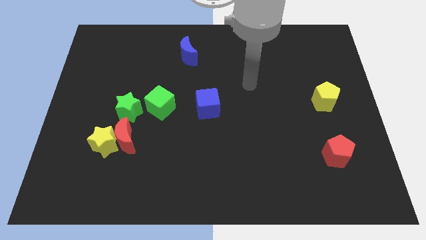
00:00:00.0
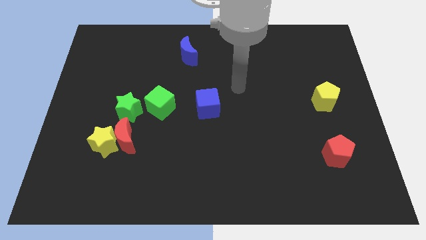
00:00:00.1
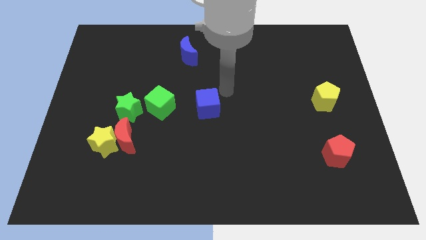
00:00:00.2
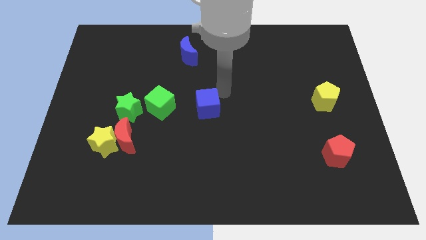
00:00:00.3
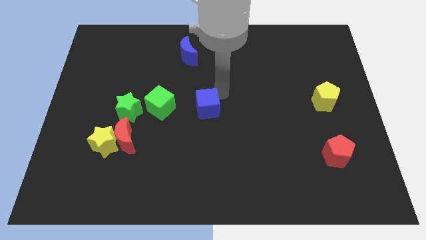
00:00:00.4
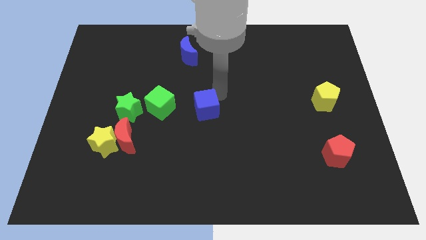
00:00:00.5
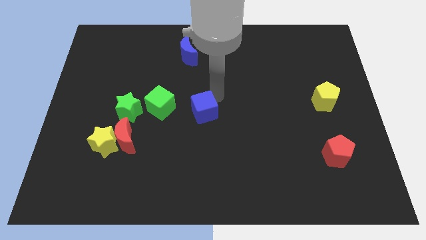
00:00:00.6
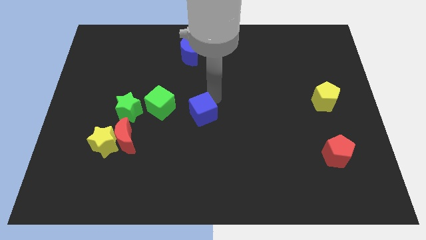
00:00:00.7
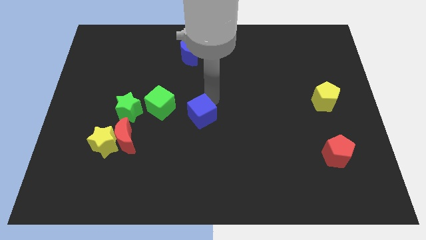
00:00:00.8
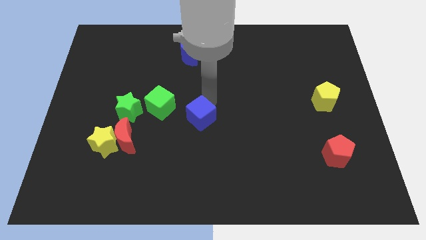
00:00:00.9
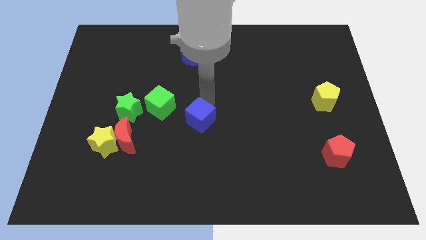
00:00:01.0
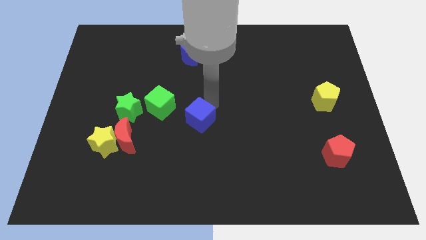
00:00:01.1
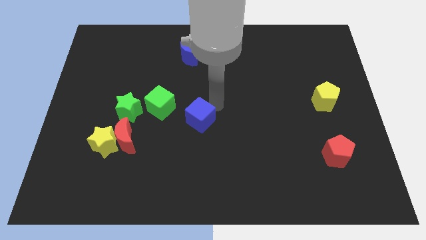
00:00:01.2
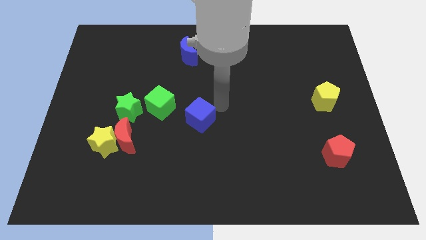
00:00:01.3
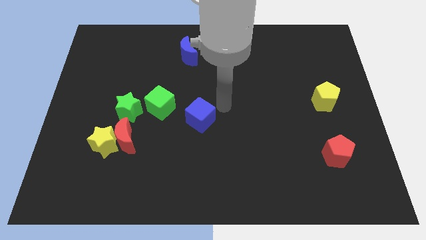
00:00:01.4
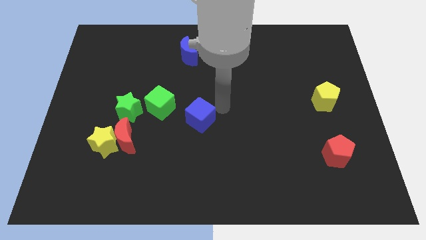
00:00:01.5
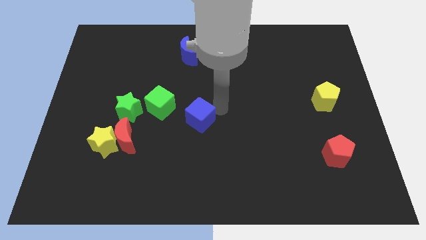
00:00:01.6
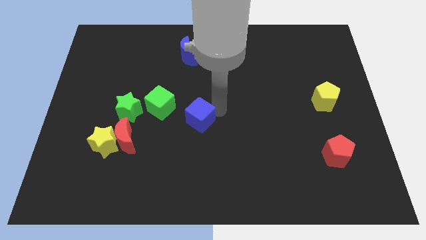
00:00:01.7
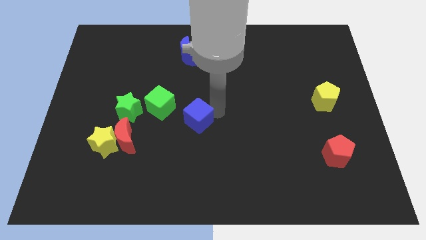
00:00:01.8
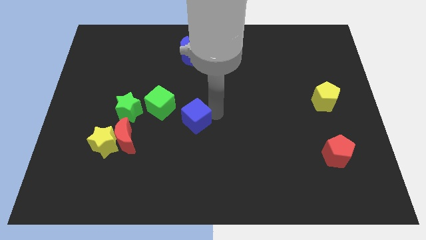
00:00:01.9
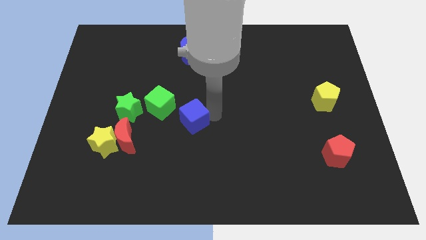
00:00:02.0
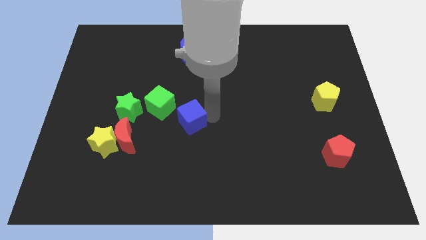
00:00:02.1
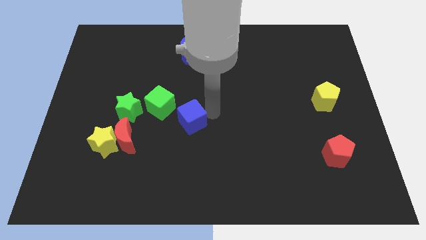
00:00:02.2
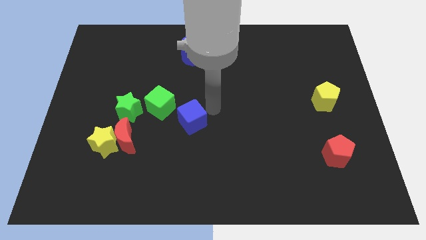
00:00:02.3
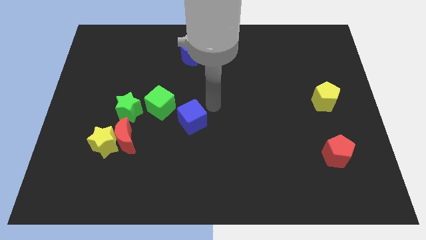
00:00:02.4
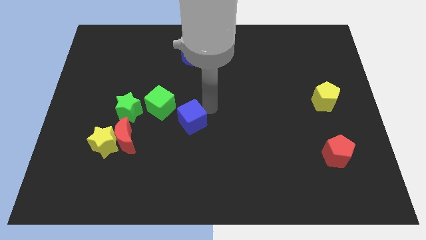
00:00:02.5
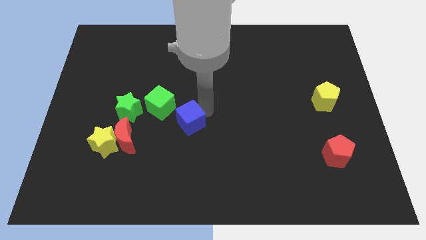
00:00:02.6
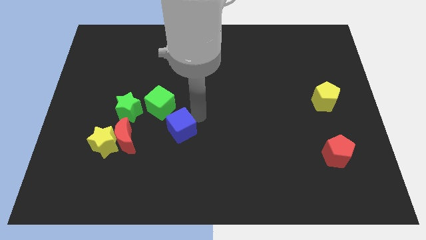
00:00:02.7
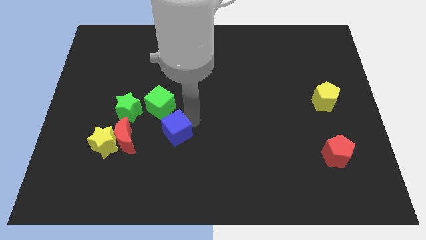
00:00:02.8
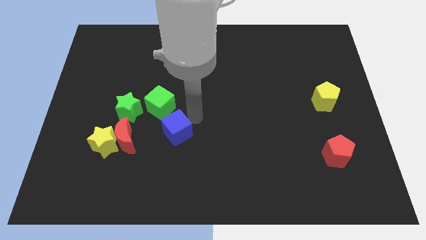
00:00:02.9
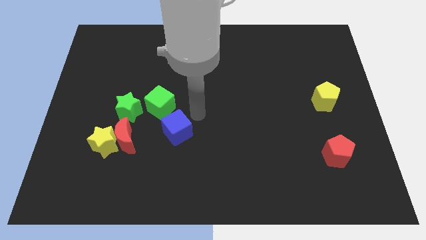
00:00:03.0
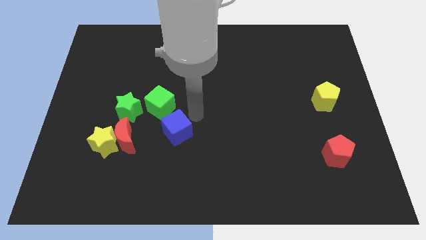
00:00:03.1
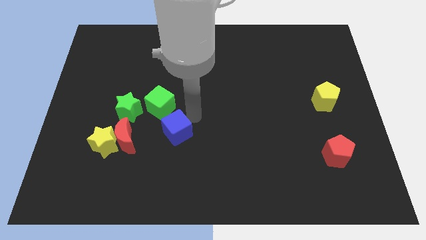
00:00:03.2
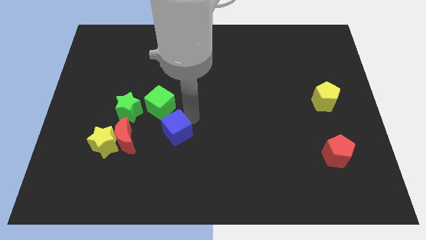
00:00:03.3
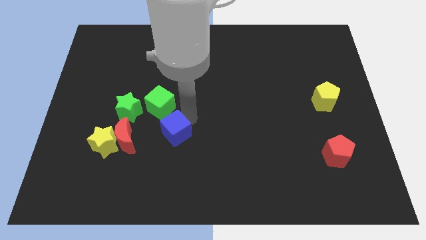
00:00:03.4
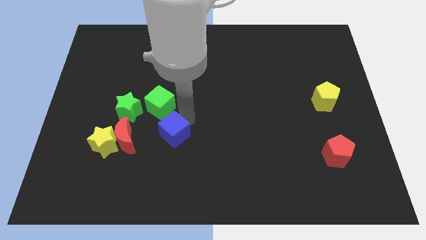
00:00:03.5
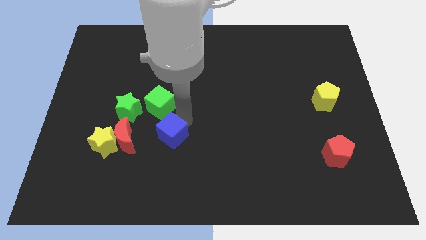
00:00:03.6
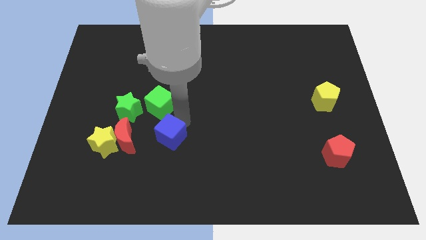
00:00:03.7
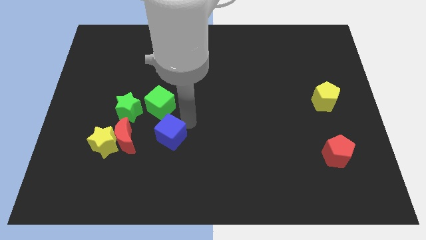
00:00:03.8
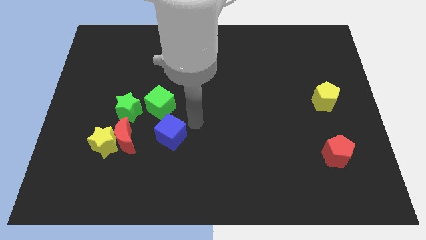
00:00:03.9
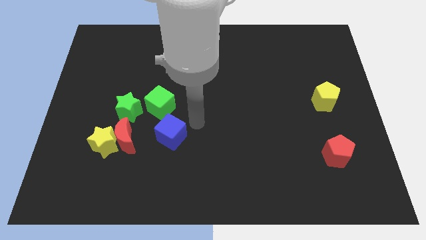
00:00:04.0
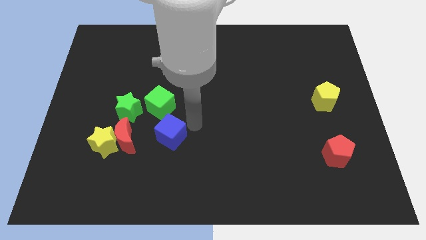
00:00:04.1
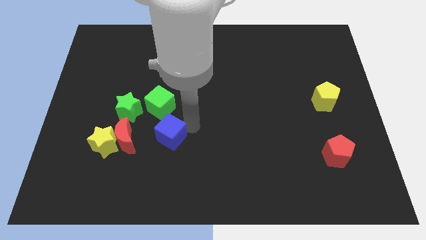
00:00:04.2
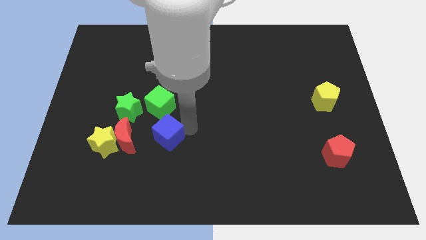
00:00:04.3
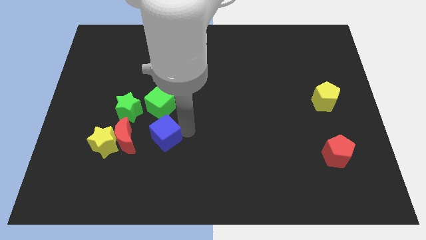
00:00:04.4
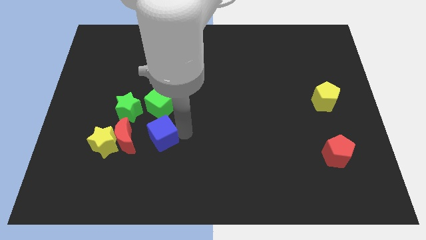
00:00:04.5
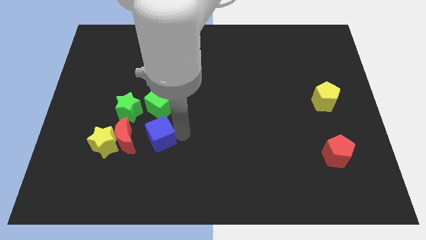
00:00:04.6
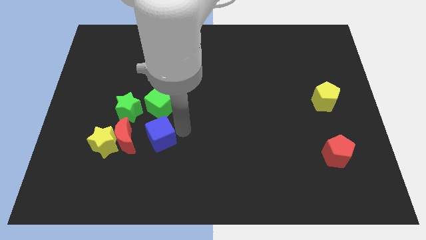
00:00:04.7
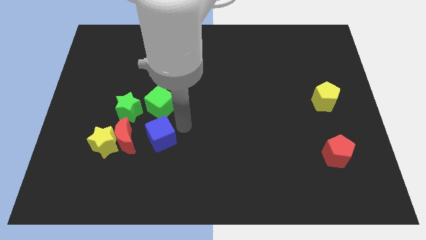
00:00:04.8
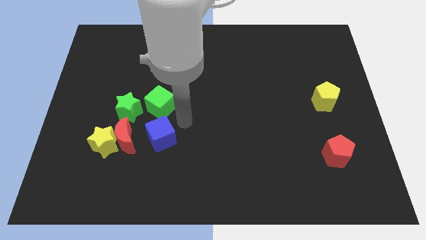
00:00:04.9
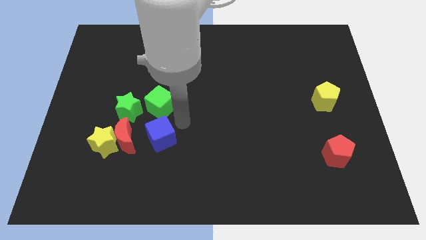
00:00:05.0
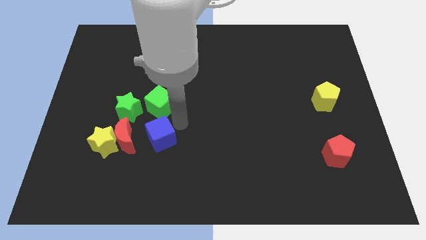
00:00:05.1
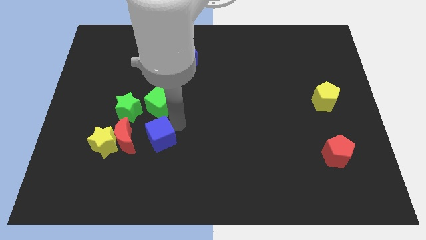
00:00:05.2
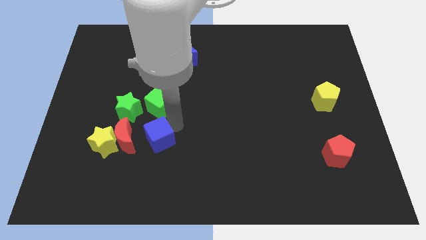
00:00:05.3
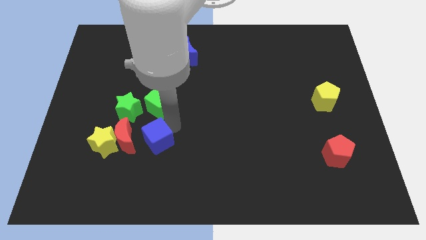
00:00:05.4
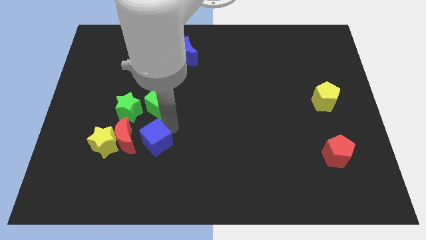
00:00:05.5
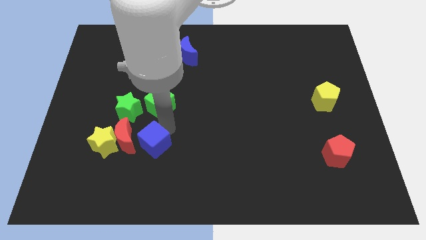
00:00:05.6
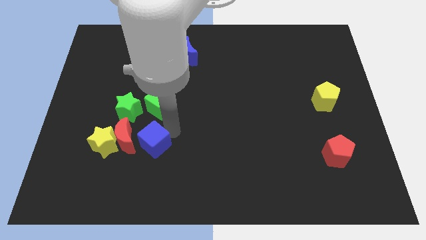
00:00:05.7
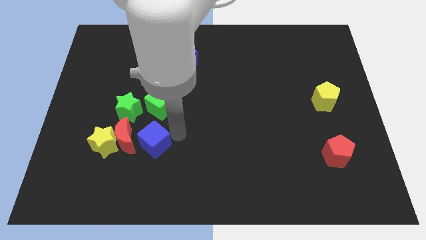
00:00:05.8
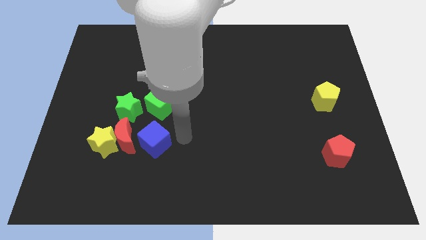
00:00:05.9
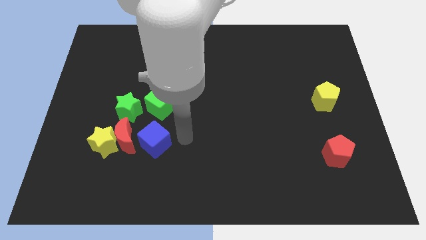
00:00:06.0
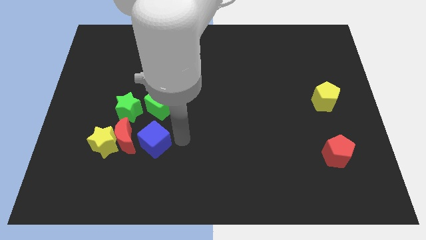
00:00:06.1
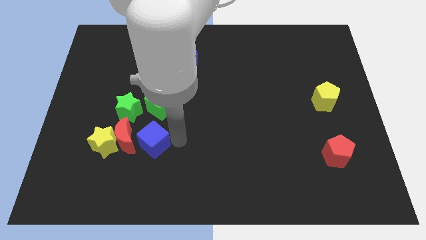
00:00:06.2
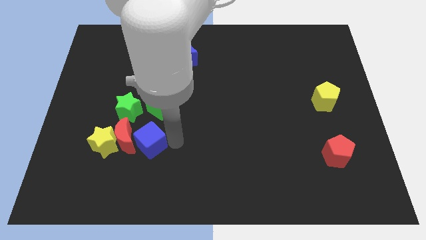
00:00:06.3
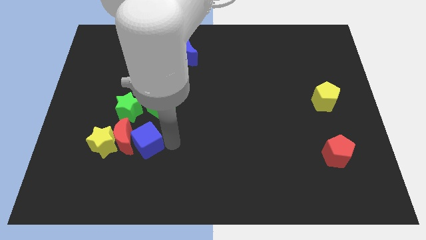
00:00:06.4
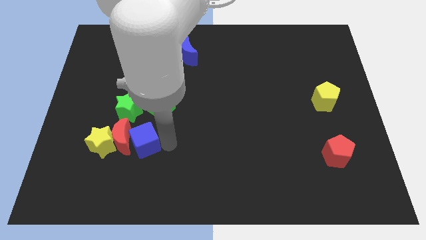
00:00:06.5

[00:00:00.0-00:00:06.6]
slide the blue cube below the green star

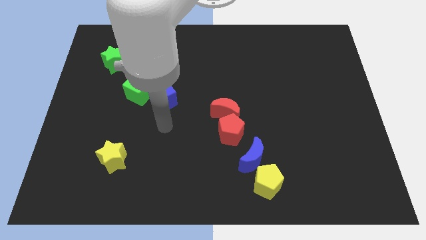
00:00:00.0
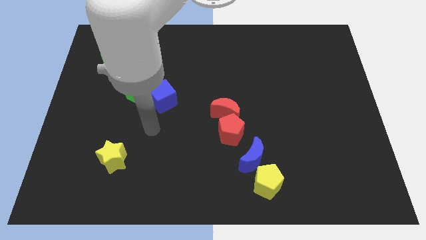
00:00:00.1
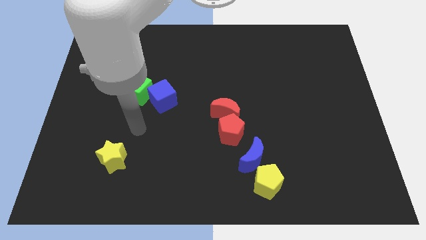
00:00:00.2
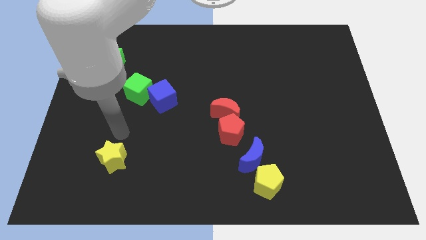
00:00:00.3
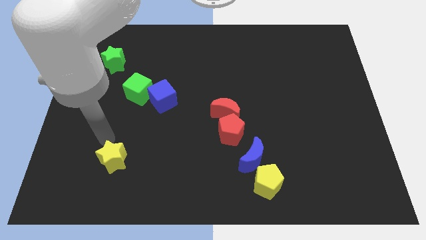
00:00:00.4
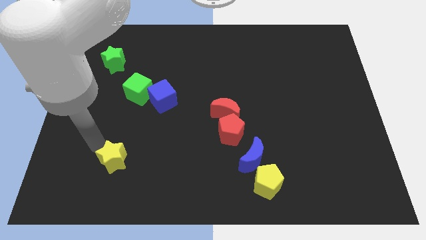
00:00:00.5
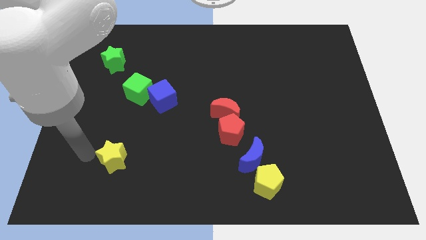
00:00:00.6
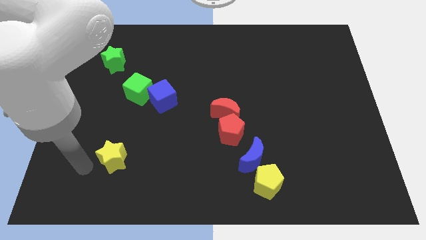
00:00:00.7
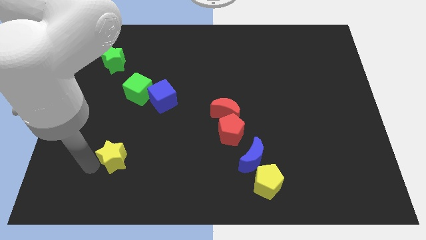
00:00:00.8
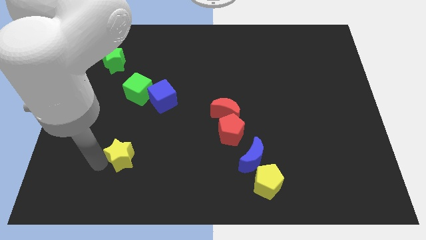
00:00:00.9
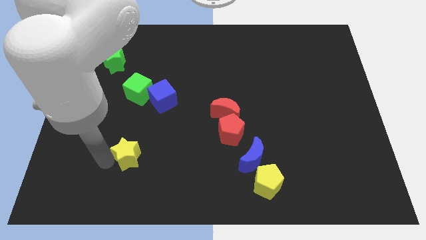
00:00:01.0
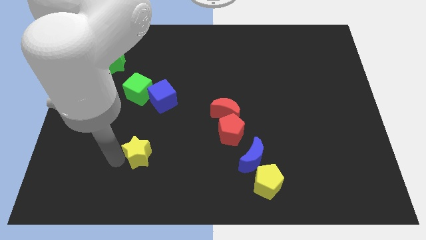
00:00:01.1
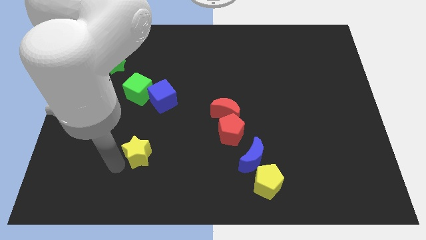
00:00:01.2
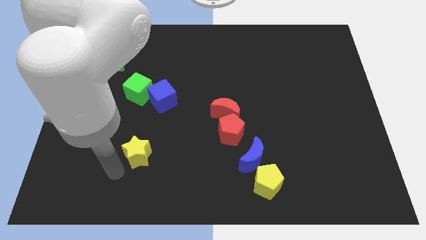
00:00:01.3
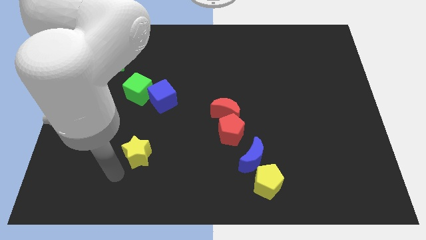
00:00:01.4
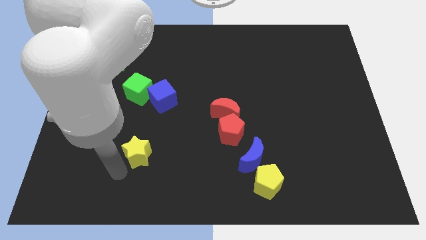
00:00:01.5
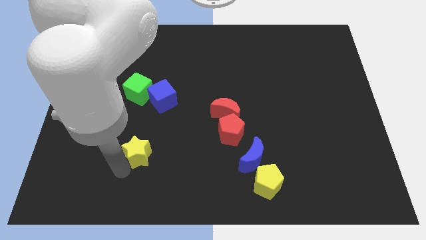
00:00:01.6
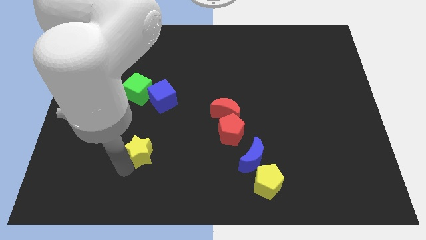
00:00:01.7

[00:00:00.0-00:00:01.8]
move the yellow star to the bottom of the blue cube
